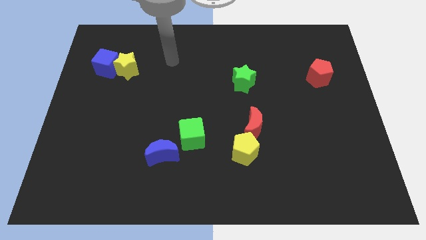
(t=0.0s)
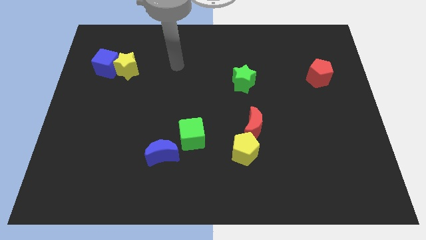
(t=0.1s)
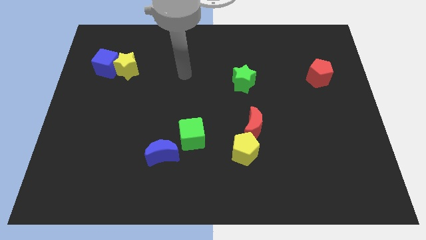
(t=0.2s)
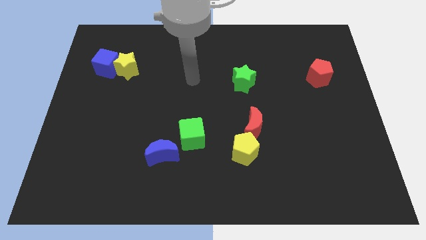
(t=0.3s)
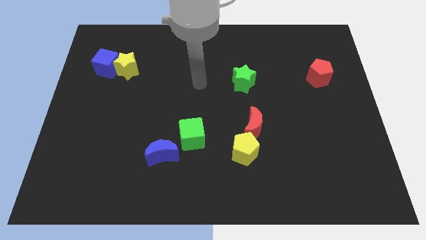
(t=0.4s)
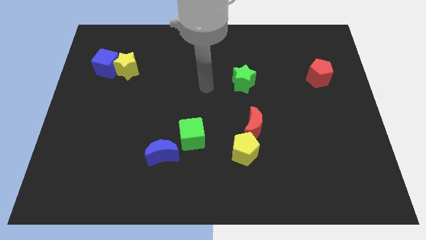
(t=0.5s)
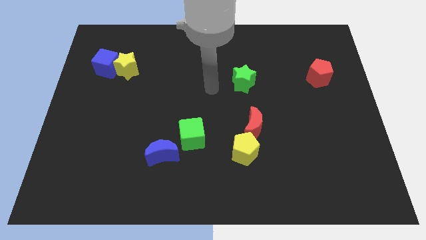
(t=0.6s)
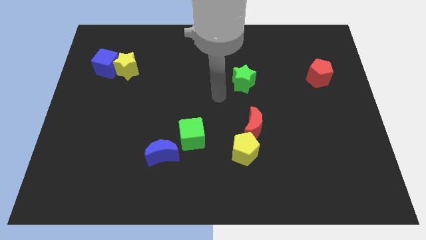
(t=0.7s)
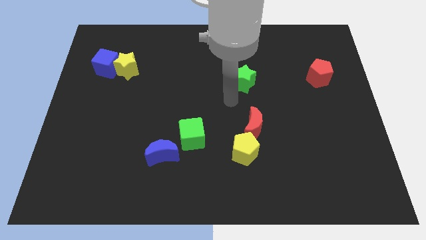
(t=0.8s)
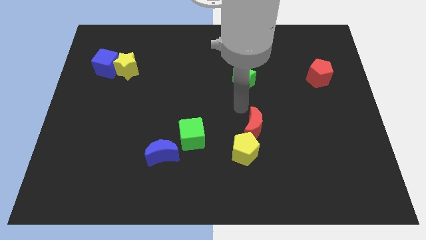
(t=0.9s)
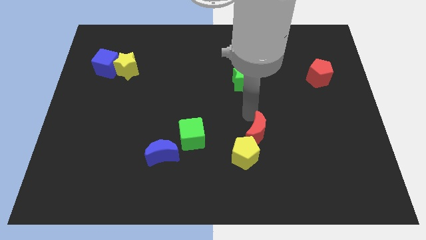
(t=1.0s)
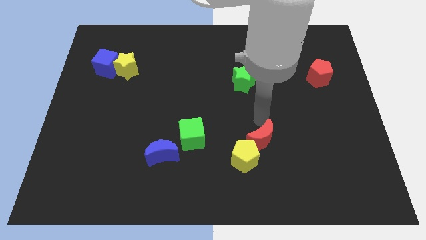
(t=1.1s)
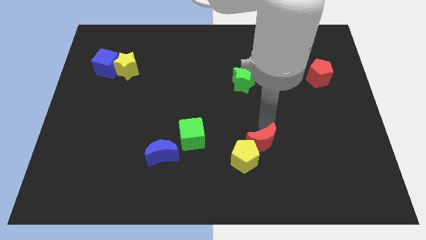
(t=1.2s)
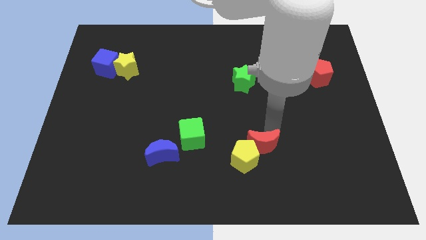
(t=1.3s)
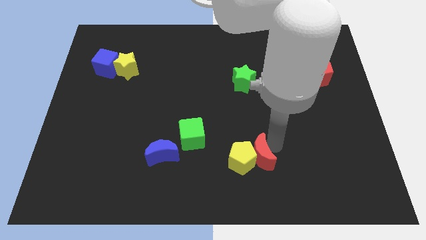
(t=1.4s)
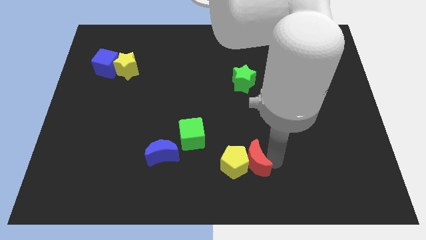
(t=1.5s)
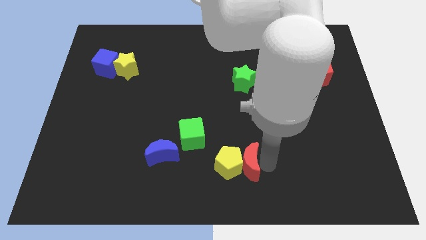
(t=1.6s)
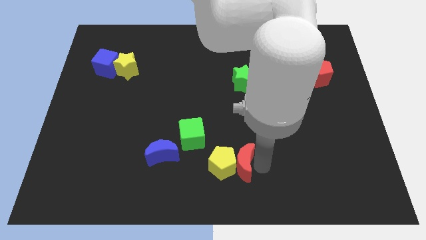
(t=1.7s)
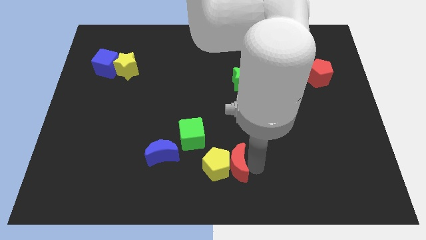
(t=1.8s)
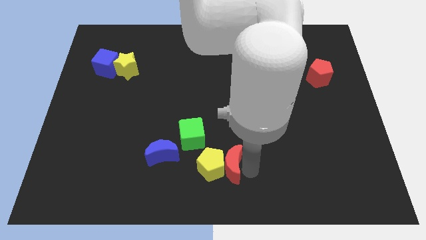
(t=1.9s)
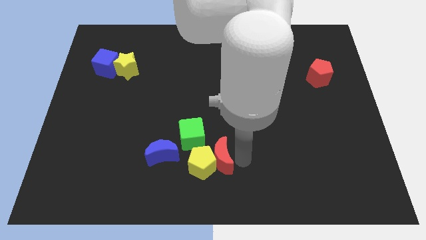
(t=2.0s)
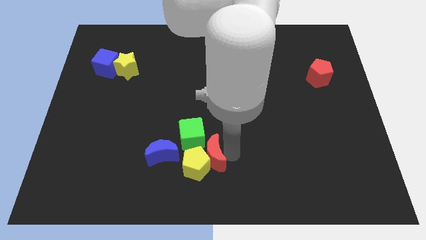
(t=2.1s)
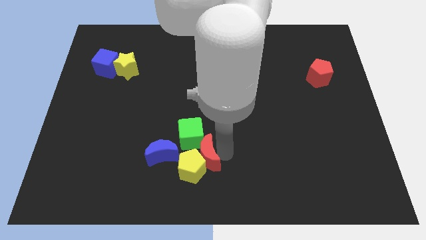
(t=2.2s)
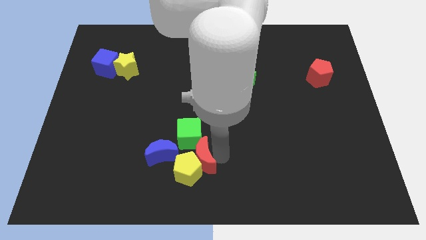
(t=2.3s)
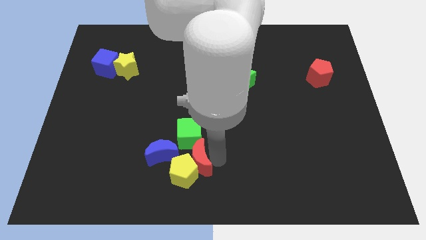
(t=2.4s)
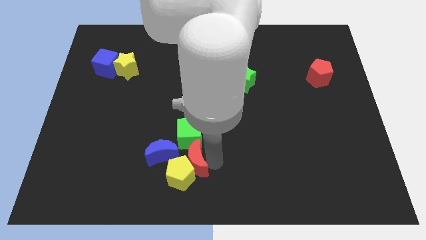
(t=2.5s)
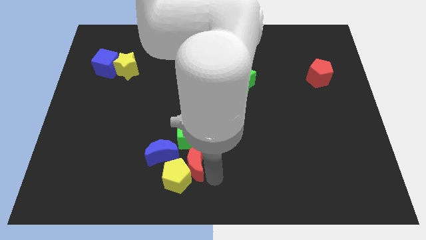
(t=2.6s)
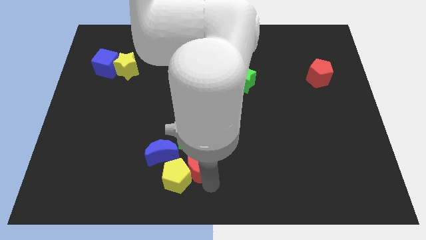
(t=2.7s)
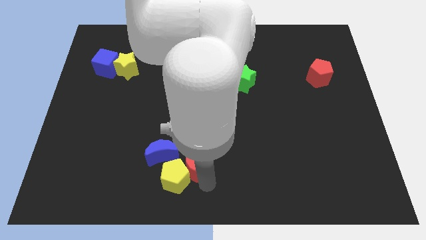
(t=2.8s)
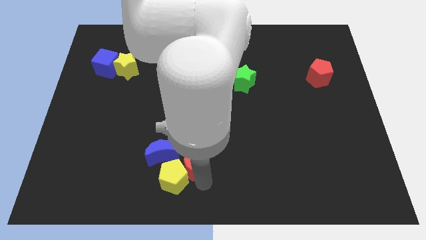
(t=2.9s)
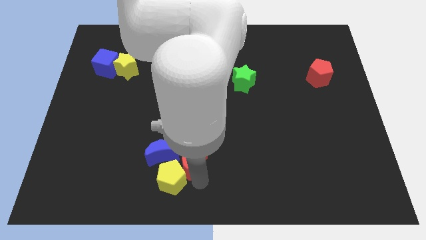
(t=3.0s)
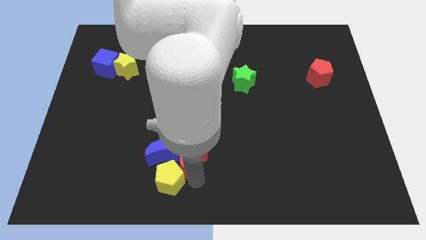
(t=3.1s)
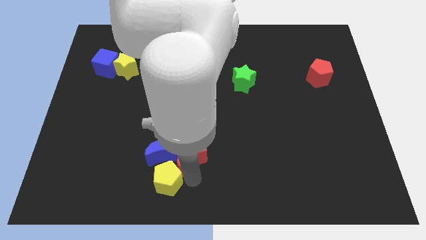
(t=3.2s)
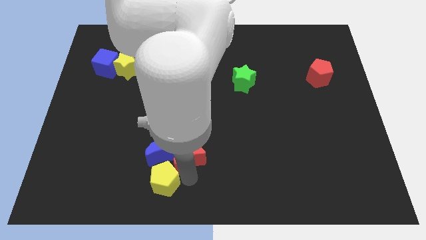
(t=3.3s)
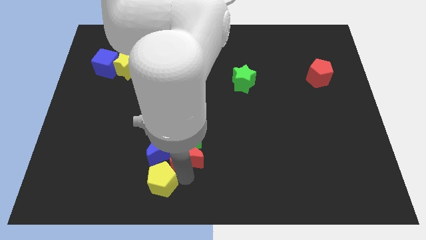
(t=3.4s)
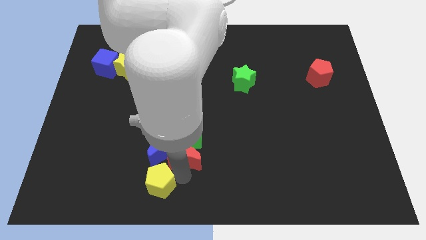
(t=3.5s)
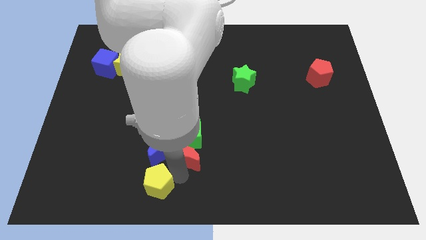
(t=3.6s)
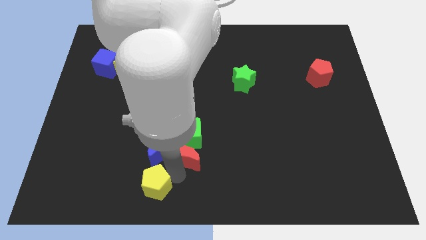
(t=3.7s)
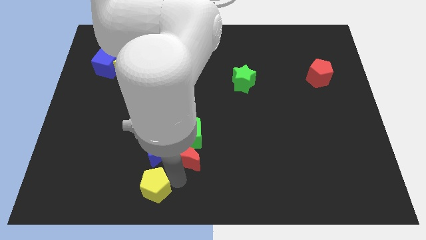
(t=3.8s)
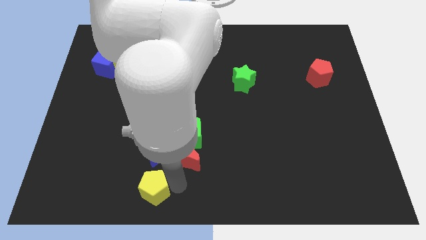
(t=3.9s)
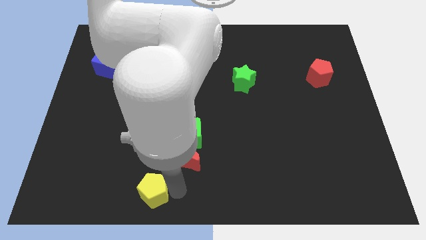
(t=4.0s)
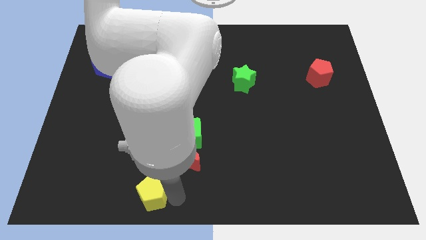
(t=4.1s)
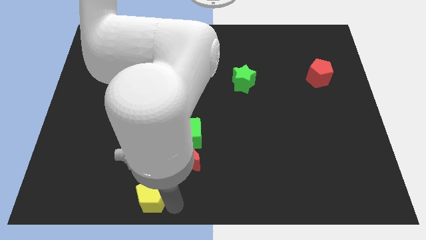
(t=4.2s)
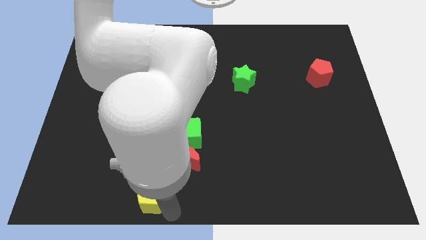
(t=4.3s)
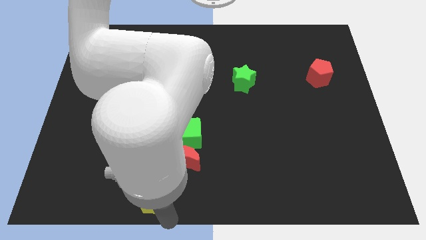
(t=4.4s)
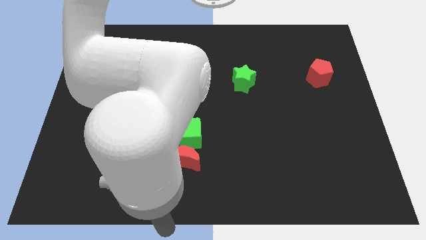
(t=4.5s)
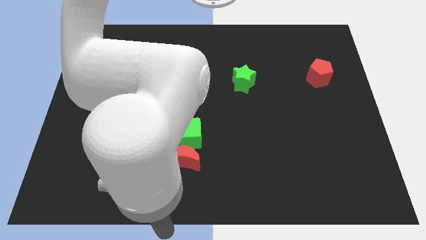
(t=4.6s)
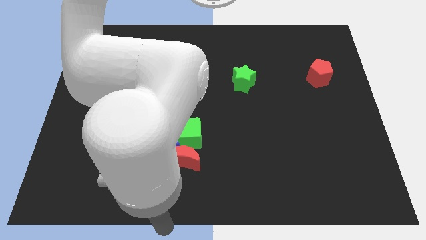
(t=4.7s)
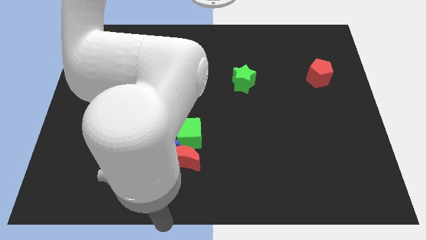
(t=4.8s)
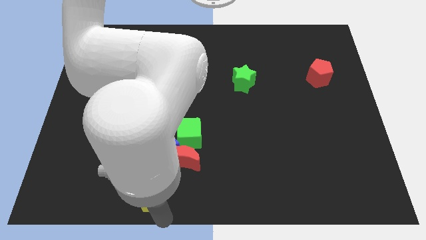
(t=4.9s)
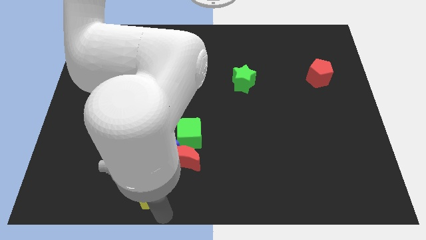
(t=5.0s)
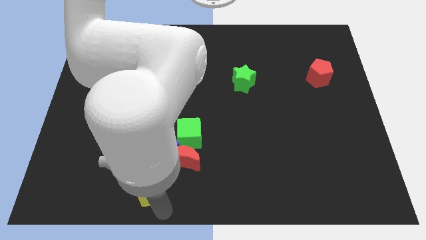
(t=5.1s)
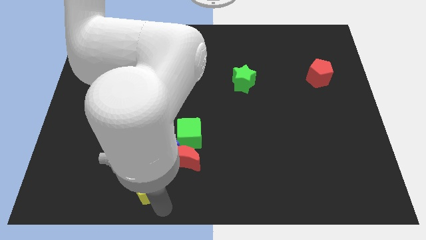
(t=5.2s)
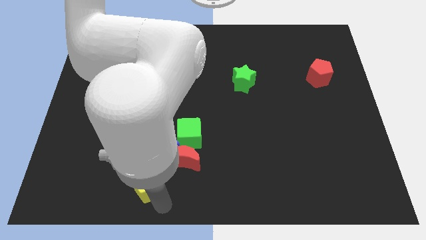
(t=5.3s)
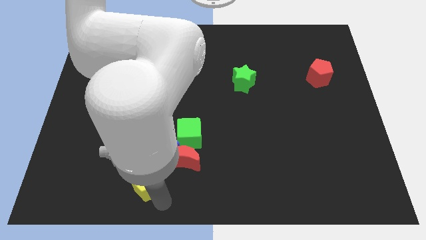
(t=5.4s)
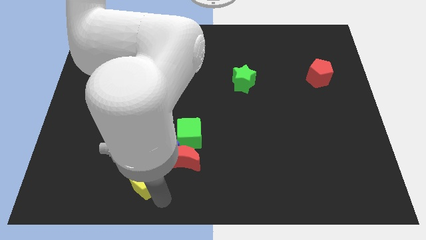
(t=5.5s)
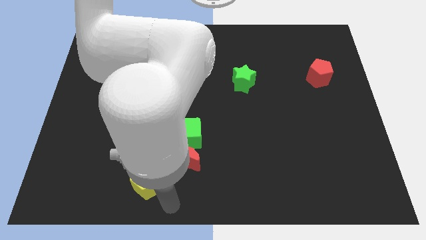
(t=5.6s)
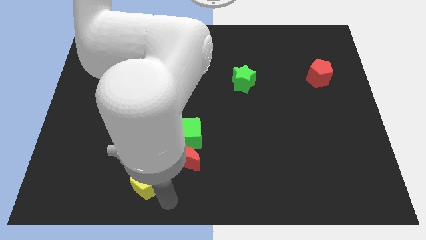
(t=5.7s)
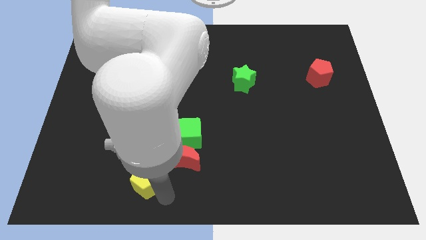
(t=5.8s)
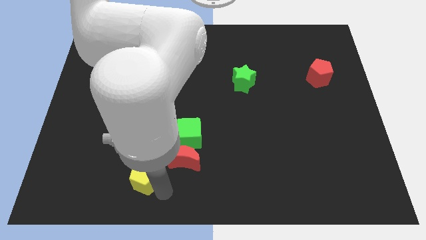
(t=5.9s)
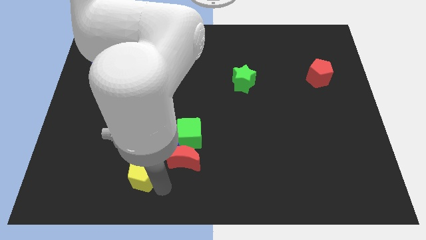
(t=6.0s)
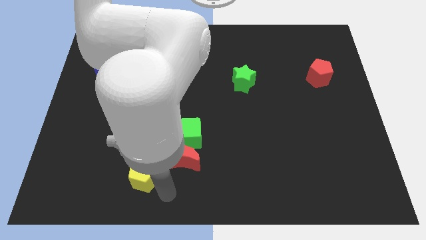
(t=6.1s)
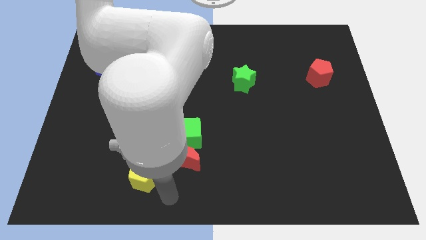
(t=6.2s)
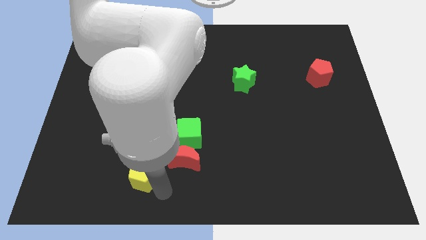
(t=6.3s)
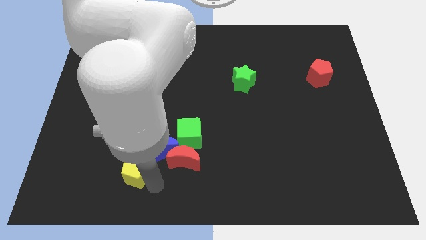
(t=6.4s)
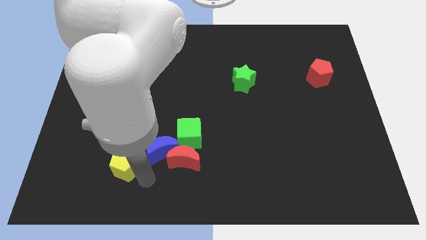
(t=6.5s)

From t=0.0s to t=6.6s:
move the yellow pentagon left of the blue moon

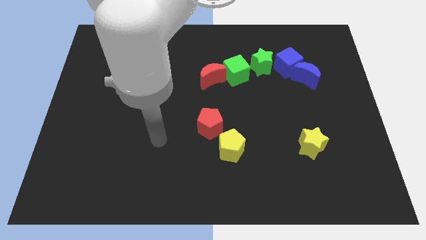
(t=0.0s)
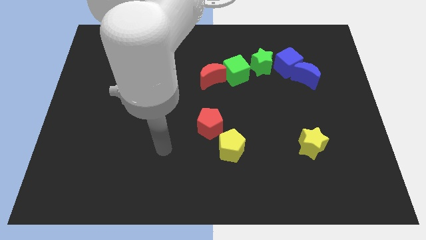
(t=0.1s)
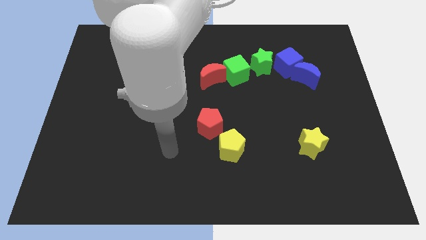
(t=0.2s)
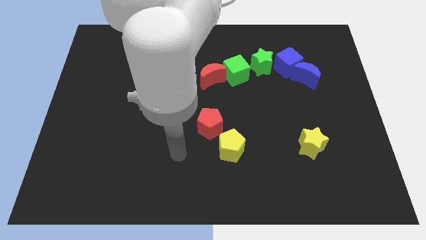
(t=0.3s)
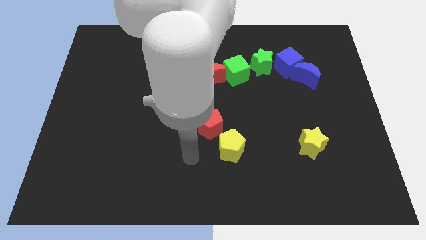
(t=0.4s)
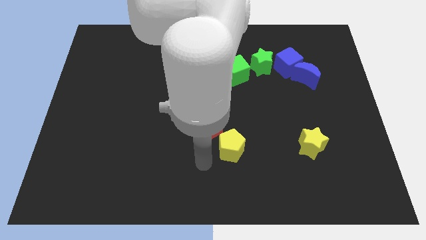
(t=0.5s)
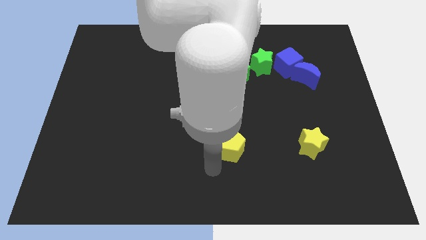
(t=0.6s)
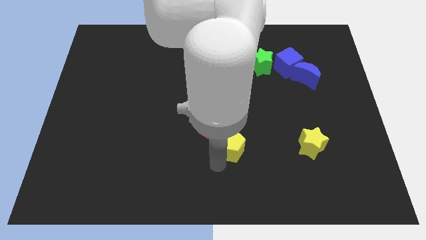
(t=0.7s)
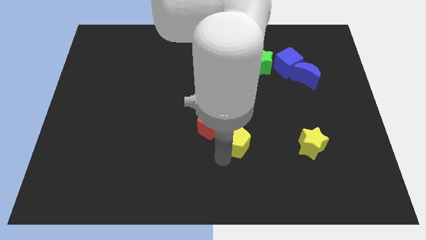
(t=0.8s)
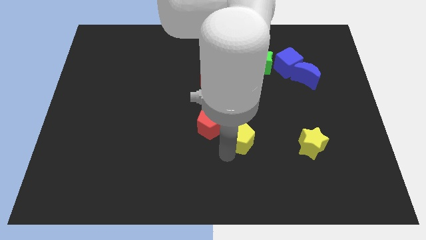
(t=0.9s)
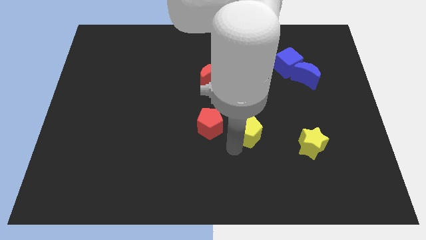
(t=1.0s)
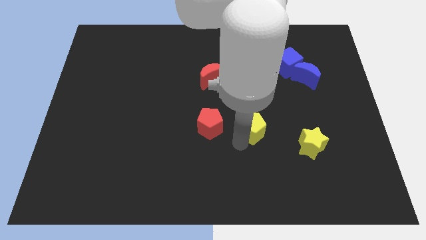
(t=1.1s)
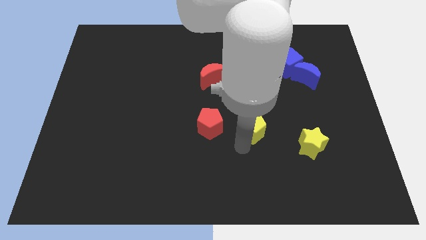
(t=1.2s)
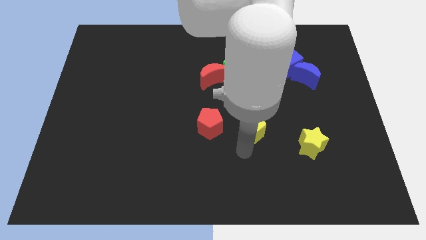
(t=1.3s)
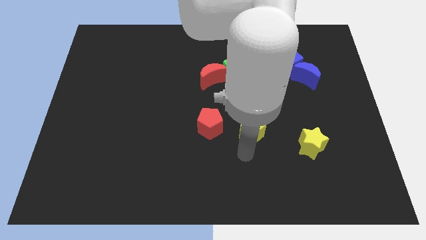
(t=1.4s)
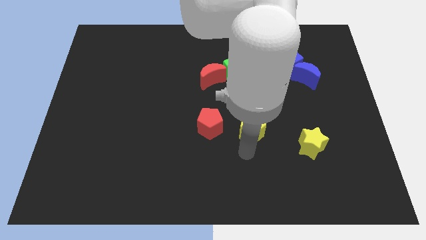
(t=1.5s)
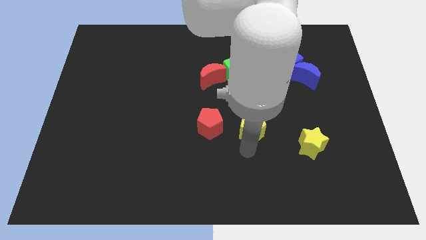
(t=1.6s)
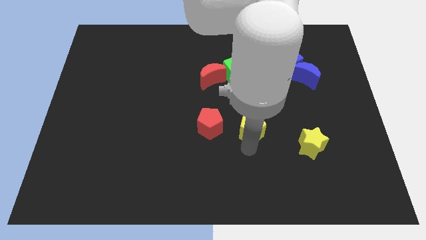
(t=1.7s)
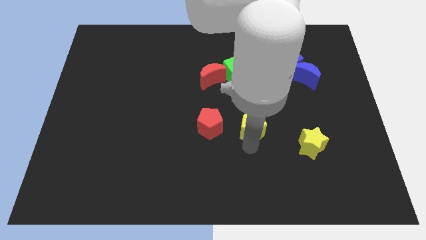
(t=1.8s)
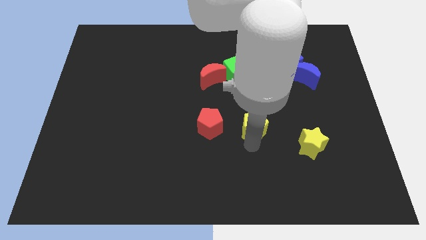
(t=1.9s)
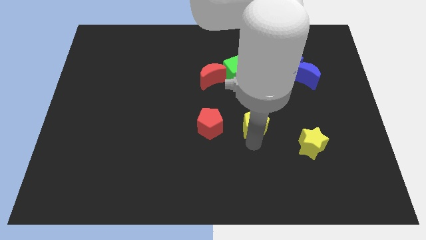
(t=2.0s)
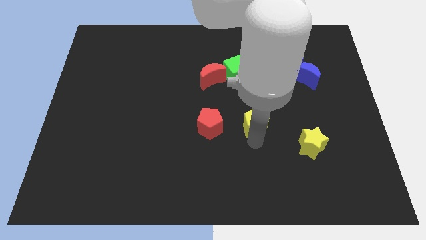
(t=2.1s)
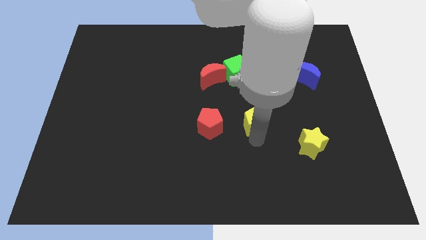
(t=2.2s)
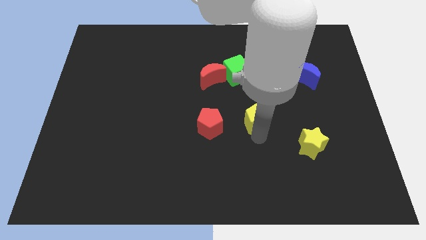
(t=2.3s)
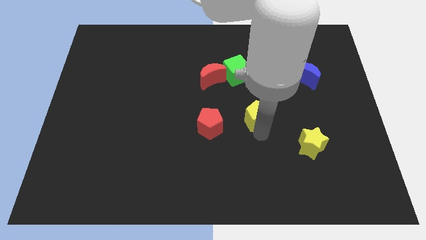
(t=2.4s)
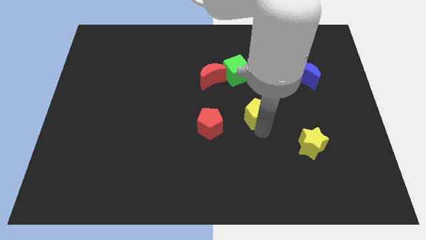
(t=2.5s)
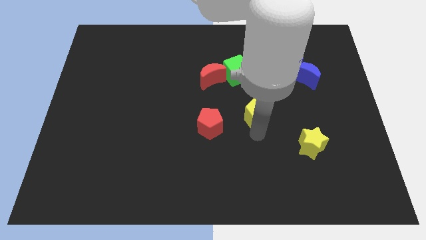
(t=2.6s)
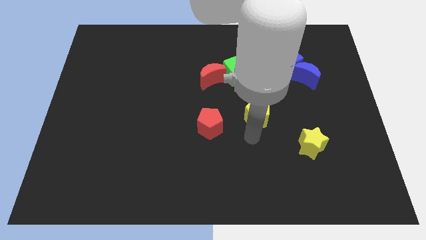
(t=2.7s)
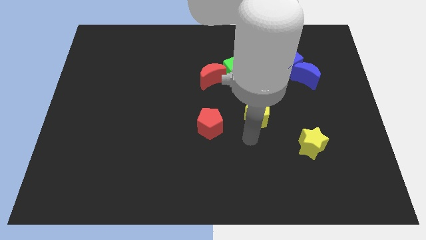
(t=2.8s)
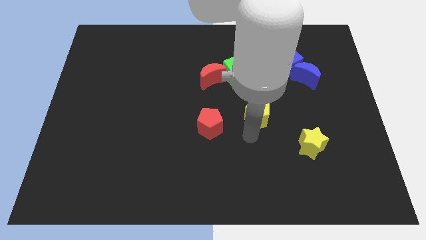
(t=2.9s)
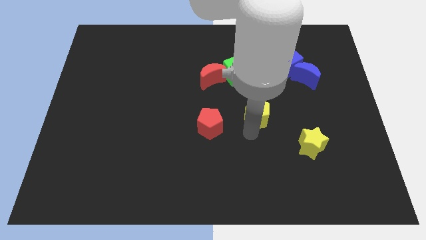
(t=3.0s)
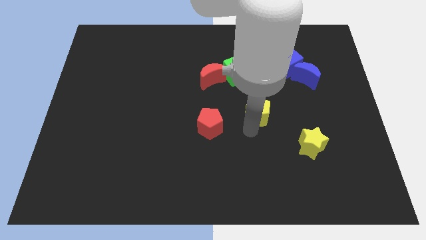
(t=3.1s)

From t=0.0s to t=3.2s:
slide the yellow pentagon to the bottom of the green star
